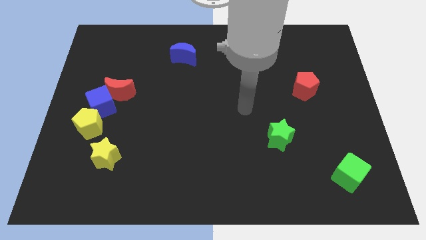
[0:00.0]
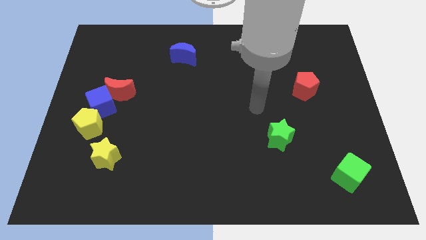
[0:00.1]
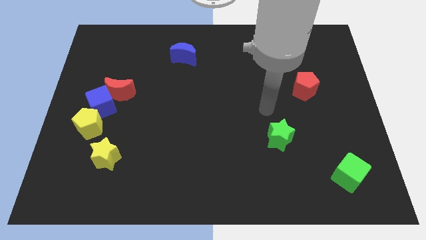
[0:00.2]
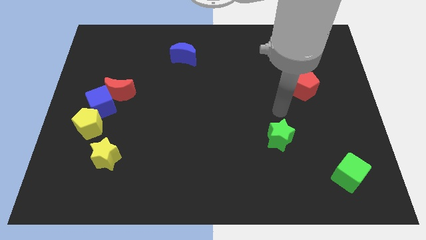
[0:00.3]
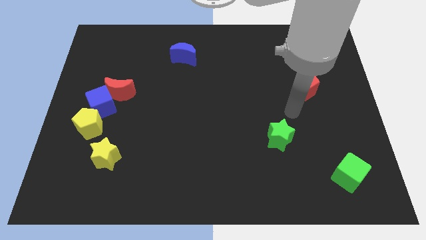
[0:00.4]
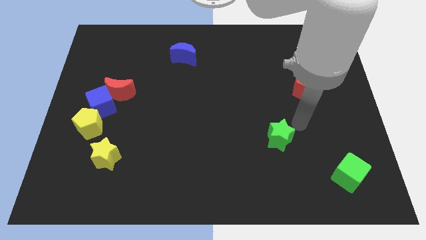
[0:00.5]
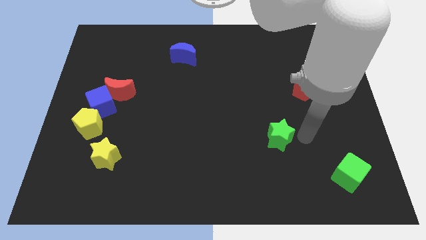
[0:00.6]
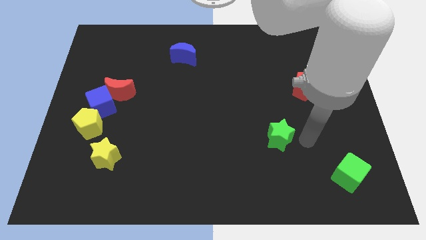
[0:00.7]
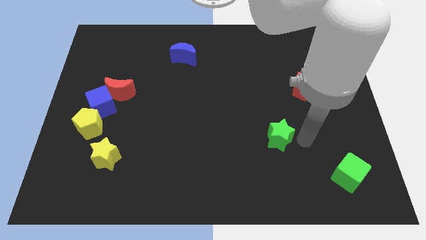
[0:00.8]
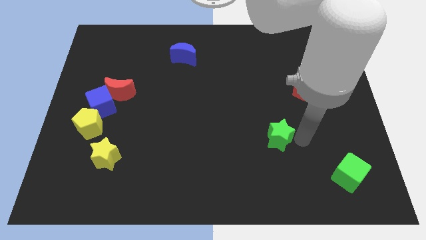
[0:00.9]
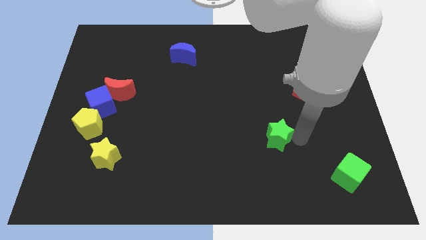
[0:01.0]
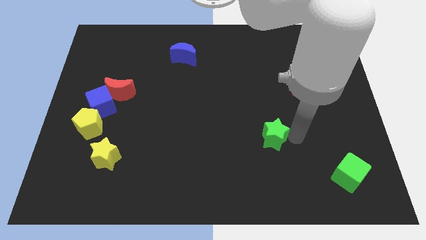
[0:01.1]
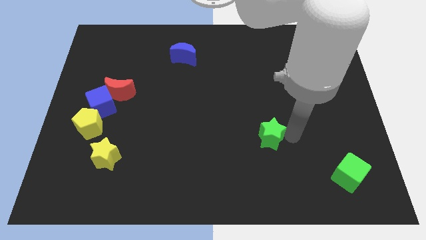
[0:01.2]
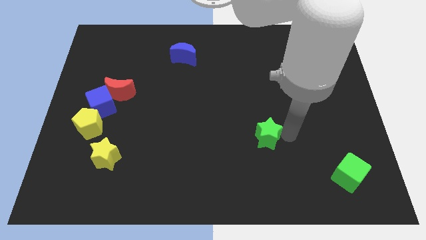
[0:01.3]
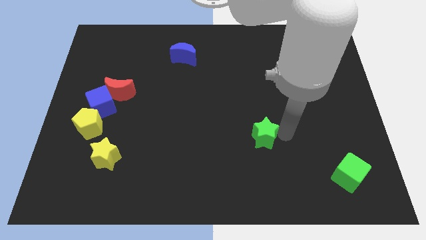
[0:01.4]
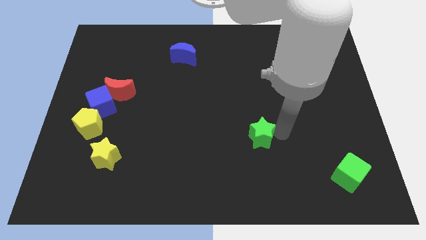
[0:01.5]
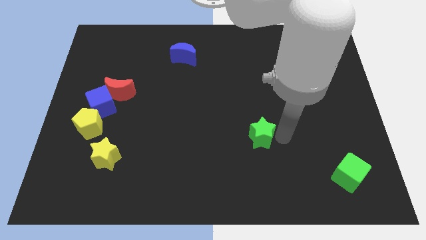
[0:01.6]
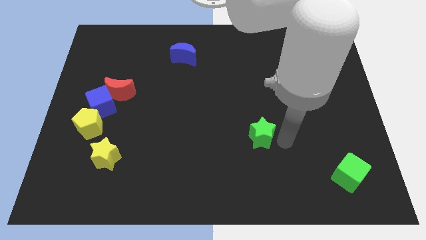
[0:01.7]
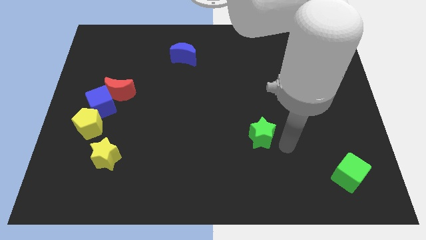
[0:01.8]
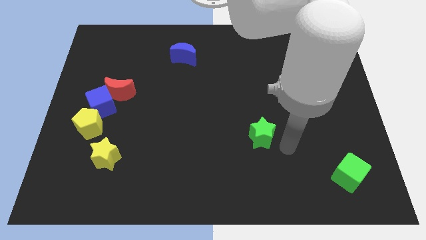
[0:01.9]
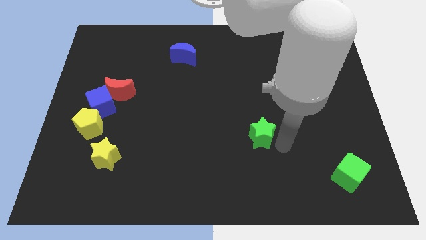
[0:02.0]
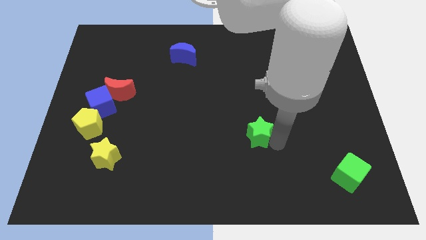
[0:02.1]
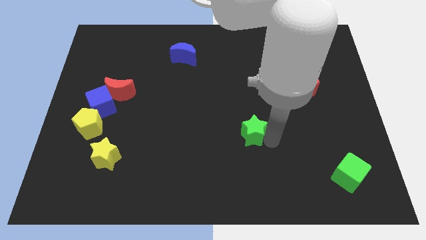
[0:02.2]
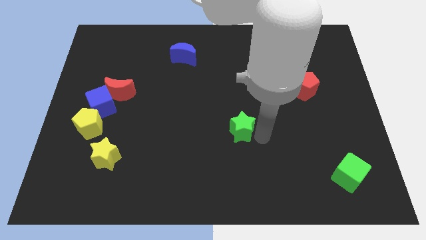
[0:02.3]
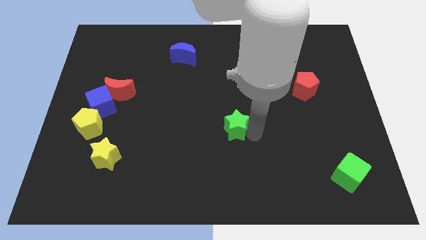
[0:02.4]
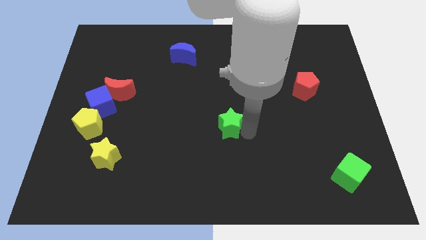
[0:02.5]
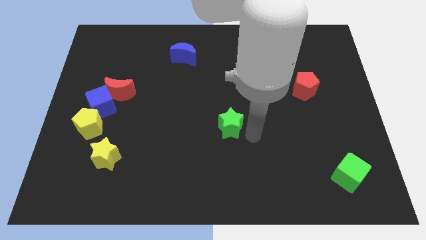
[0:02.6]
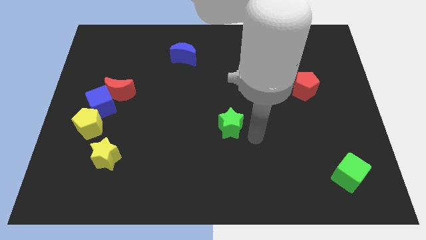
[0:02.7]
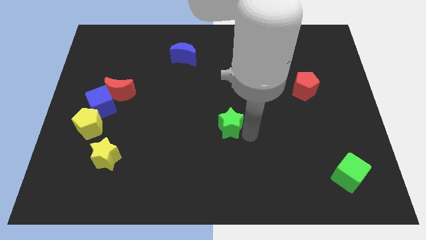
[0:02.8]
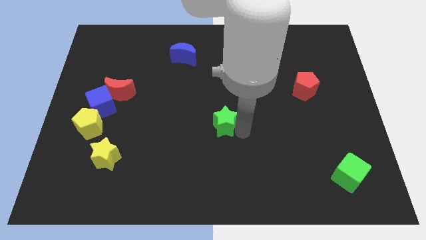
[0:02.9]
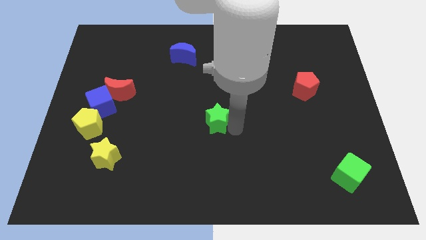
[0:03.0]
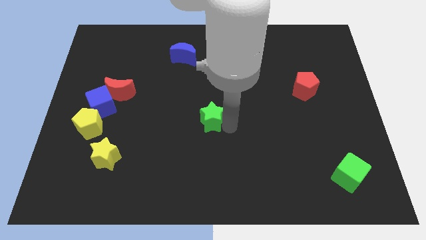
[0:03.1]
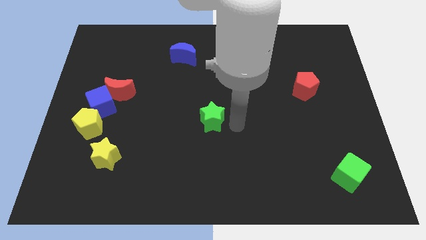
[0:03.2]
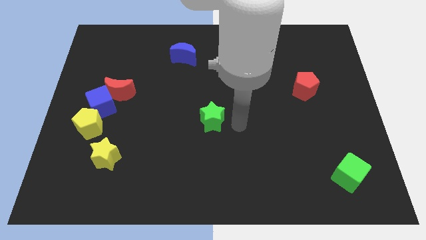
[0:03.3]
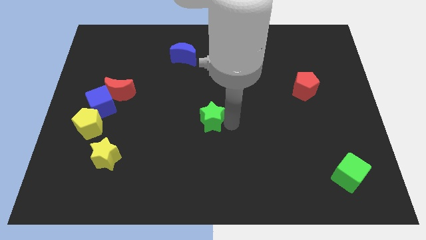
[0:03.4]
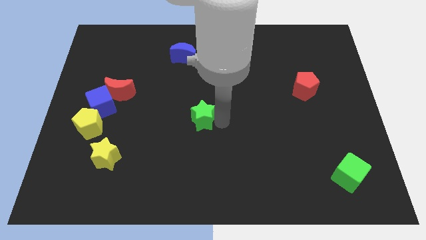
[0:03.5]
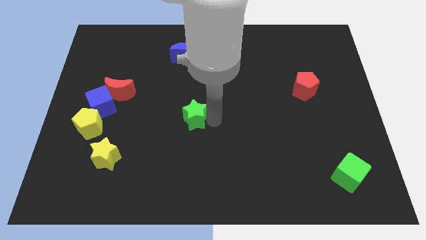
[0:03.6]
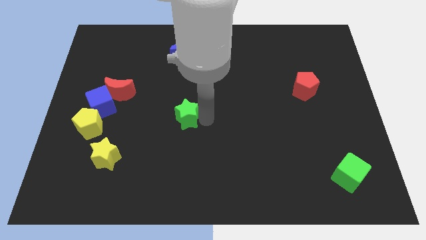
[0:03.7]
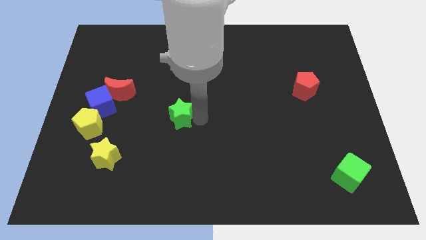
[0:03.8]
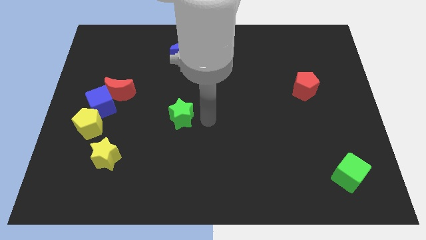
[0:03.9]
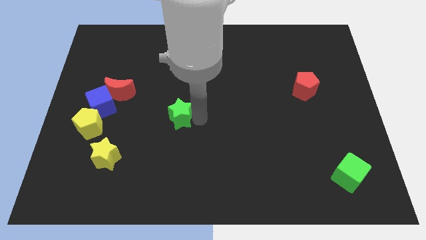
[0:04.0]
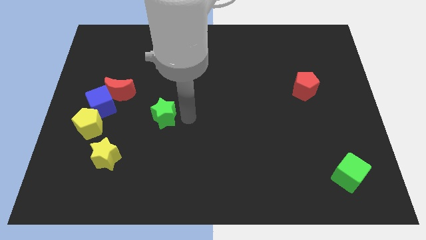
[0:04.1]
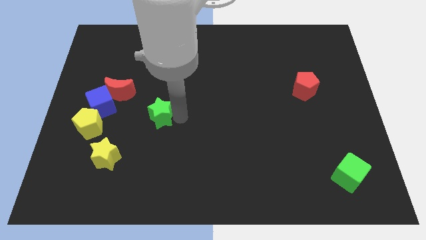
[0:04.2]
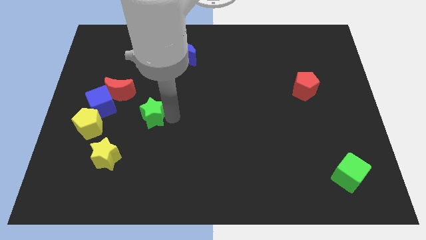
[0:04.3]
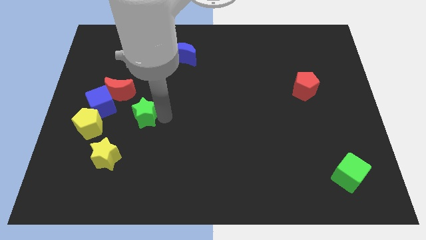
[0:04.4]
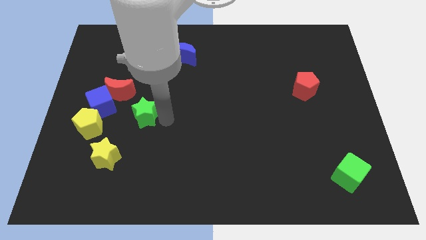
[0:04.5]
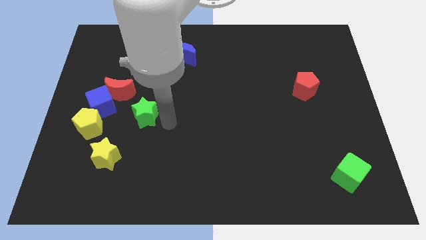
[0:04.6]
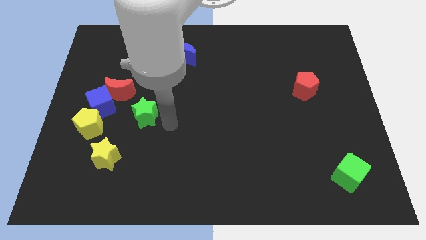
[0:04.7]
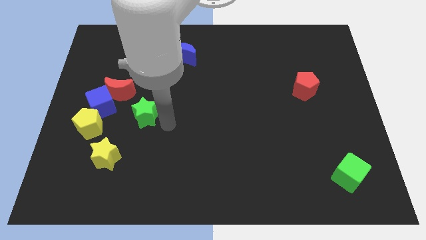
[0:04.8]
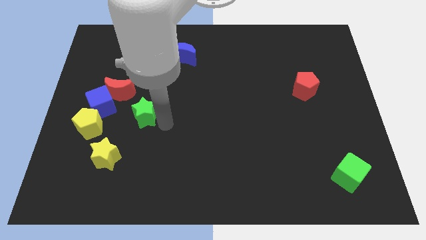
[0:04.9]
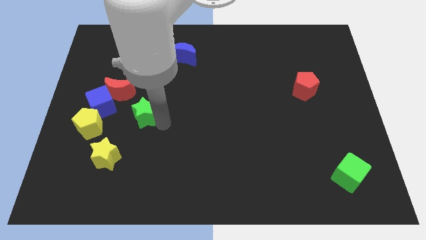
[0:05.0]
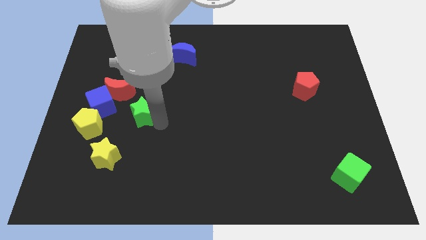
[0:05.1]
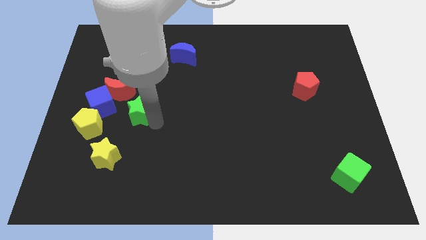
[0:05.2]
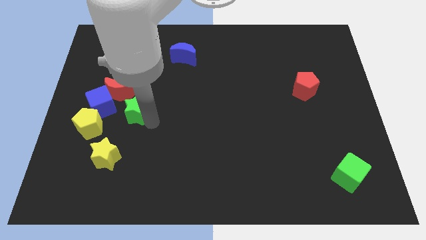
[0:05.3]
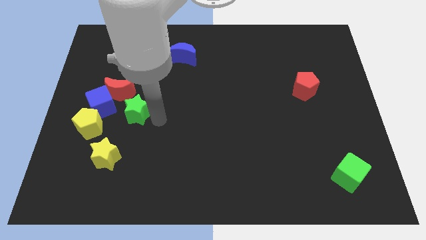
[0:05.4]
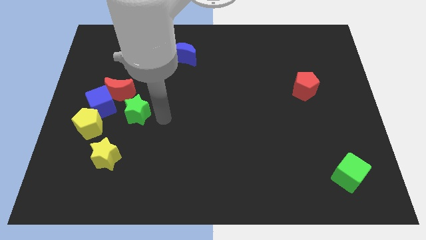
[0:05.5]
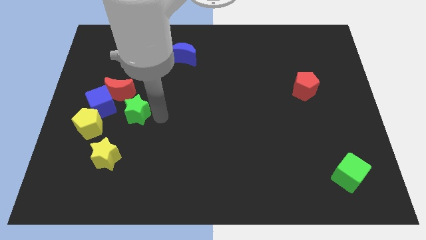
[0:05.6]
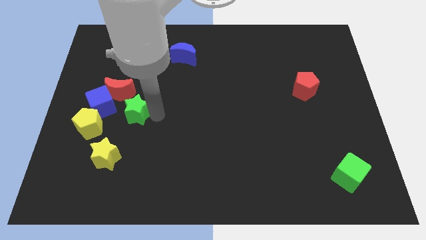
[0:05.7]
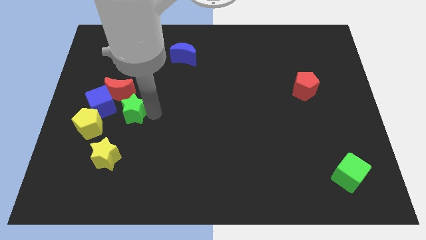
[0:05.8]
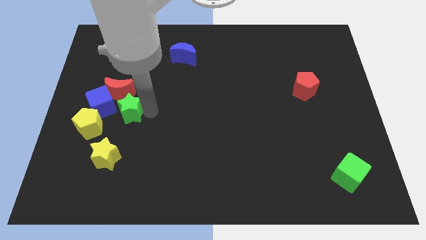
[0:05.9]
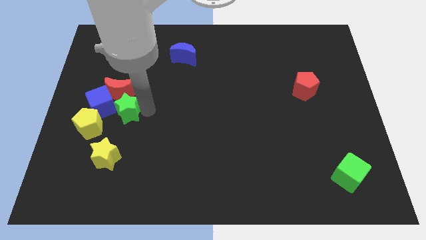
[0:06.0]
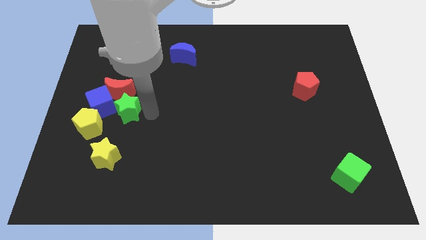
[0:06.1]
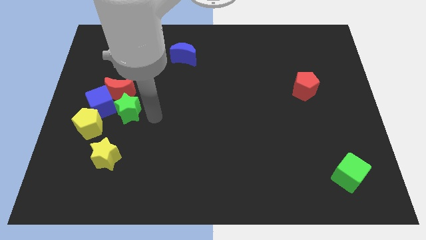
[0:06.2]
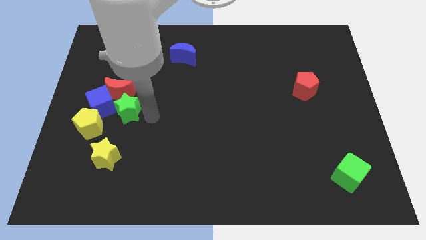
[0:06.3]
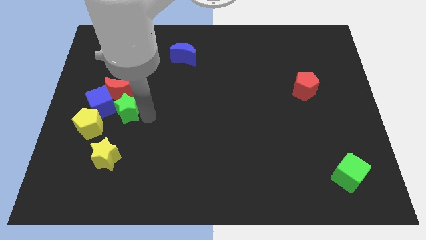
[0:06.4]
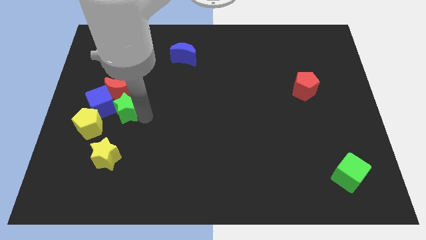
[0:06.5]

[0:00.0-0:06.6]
slide the green star towards the blue cube
